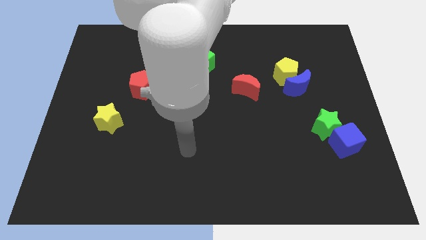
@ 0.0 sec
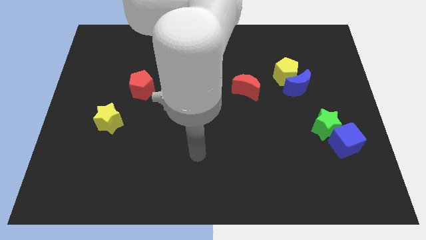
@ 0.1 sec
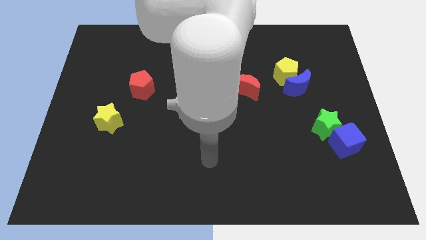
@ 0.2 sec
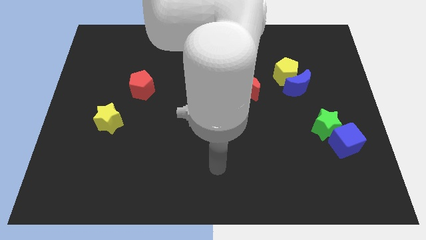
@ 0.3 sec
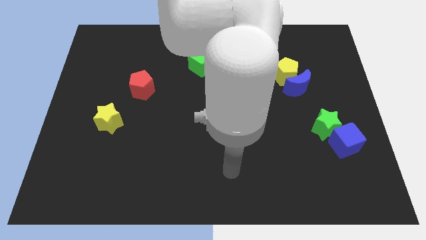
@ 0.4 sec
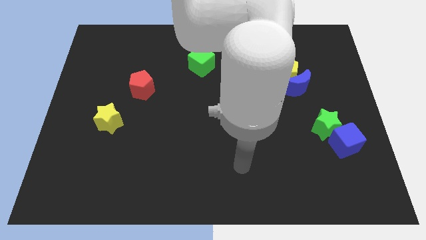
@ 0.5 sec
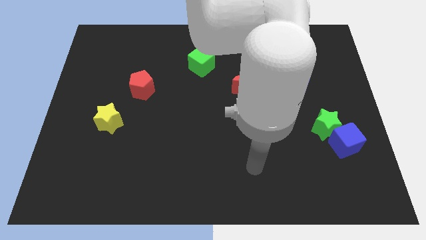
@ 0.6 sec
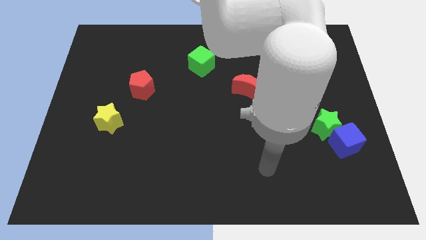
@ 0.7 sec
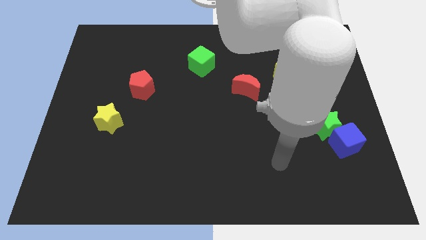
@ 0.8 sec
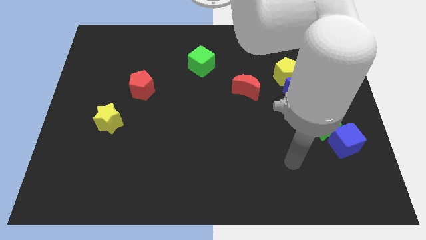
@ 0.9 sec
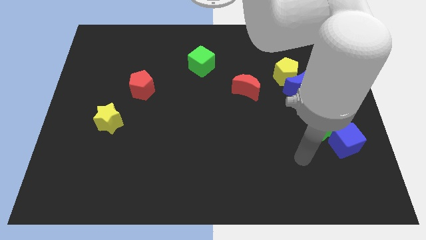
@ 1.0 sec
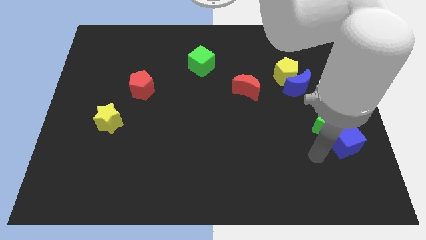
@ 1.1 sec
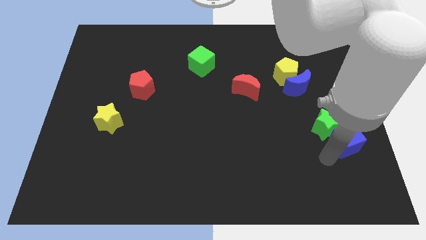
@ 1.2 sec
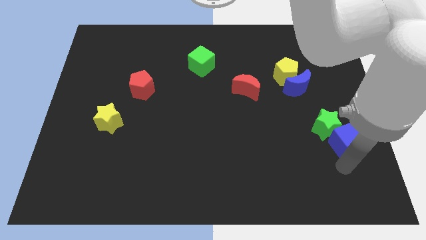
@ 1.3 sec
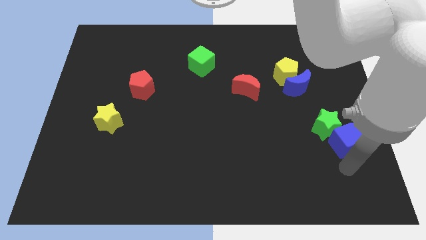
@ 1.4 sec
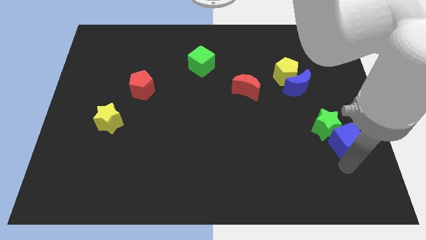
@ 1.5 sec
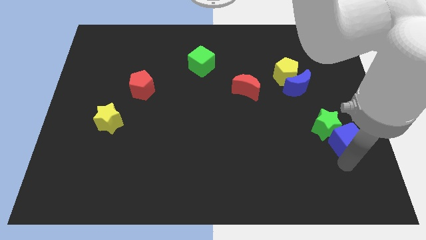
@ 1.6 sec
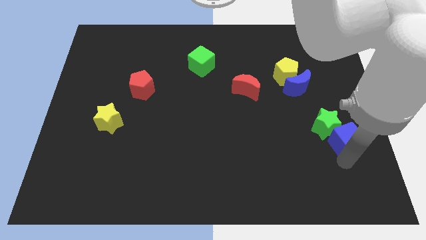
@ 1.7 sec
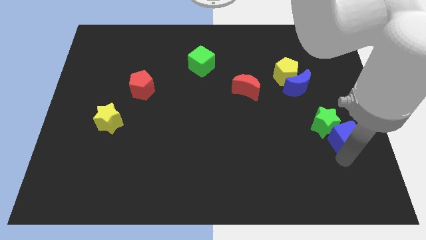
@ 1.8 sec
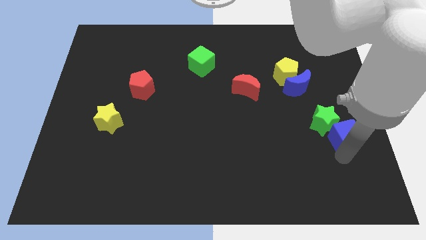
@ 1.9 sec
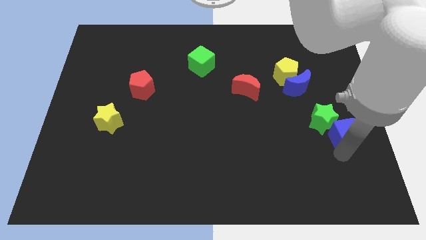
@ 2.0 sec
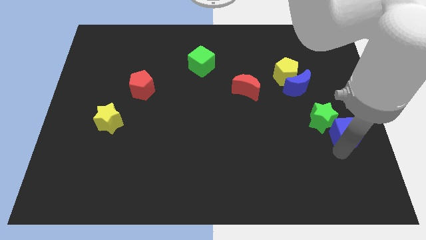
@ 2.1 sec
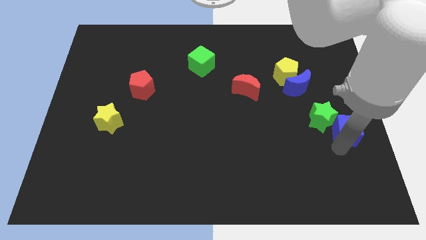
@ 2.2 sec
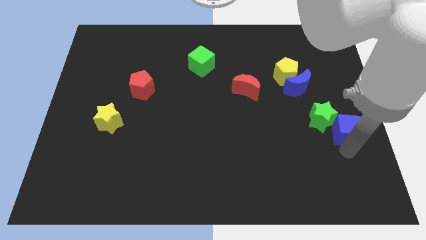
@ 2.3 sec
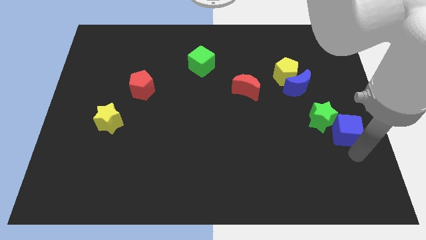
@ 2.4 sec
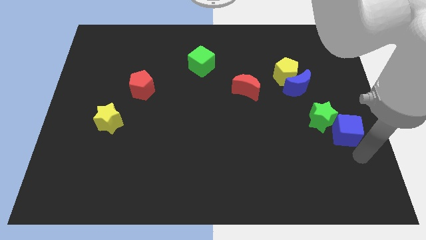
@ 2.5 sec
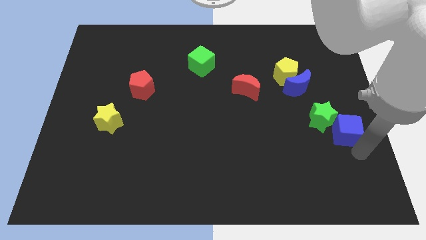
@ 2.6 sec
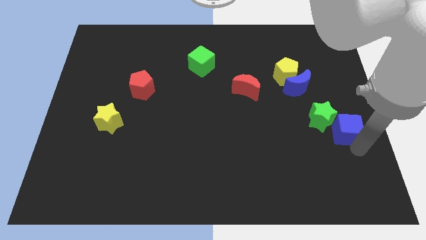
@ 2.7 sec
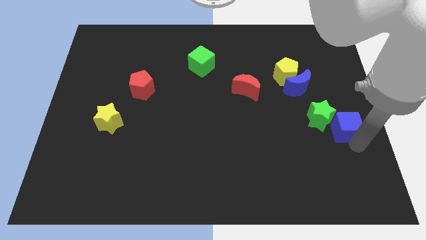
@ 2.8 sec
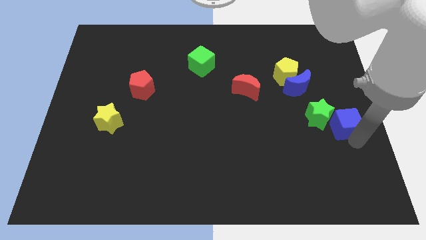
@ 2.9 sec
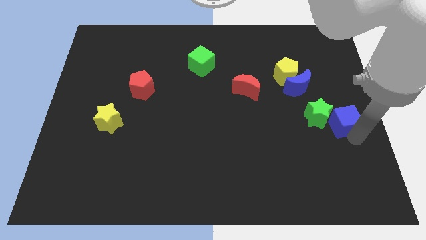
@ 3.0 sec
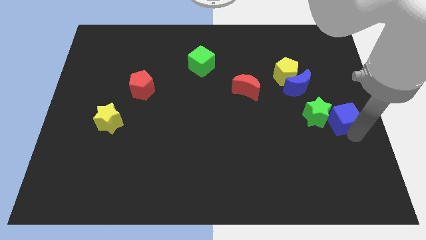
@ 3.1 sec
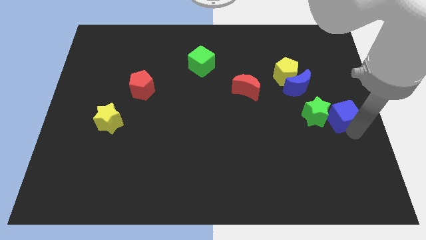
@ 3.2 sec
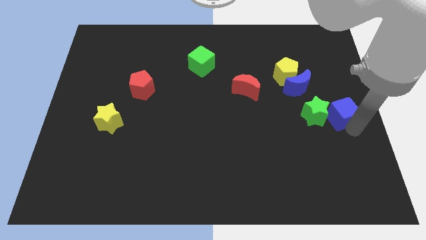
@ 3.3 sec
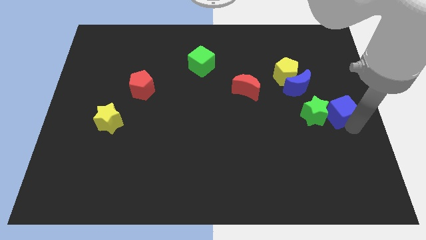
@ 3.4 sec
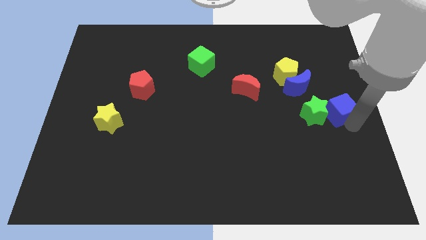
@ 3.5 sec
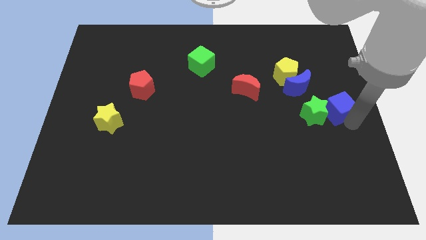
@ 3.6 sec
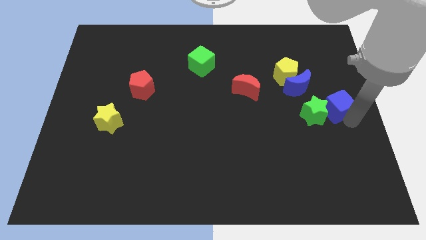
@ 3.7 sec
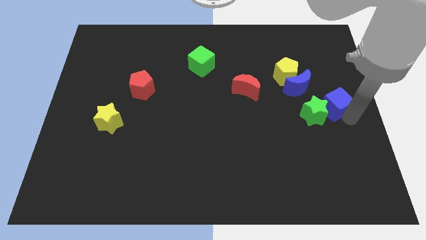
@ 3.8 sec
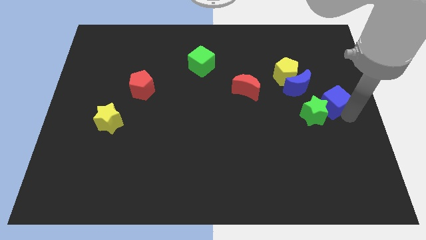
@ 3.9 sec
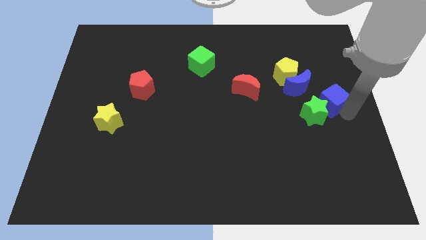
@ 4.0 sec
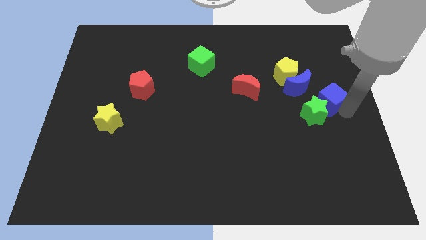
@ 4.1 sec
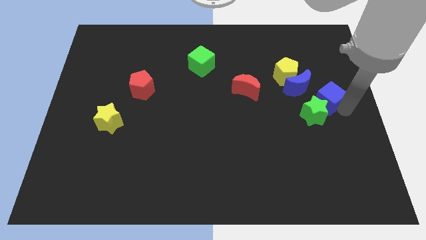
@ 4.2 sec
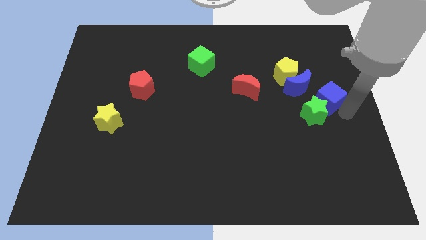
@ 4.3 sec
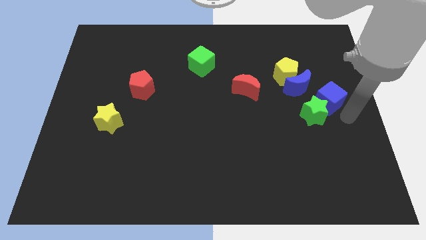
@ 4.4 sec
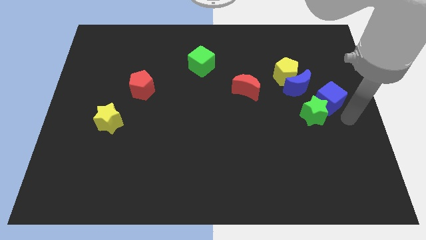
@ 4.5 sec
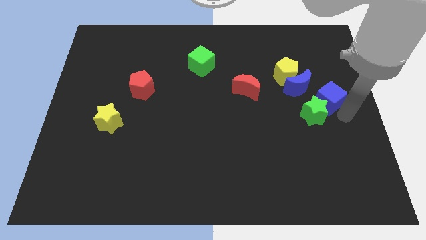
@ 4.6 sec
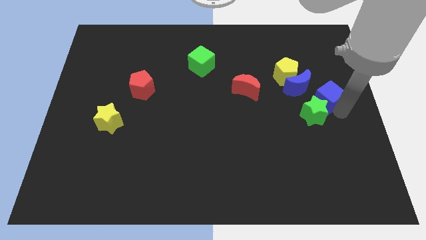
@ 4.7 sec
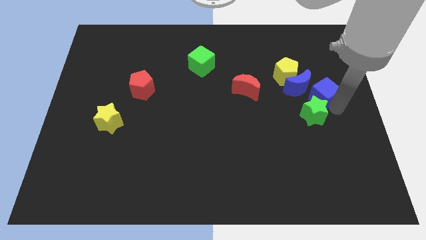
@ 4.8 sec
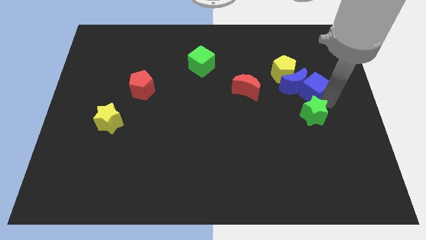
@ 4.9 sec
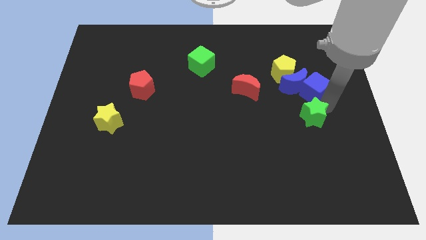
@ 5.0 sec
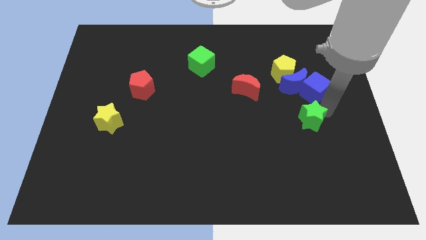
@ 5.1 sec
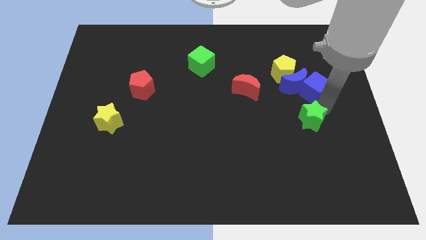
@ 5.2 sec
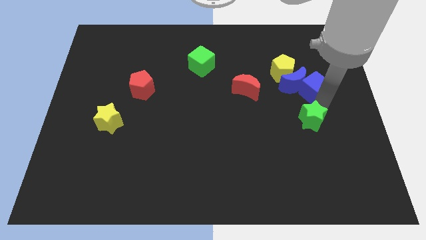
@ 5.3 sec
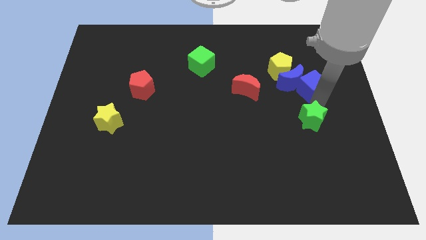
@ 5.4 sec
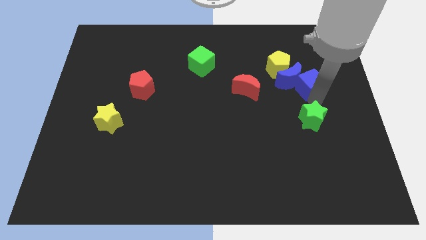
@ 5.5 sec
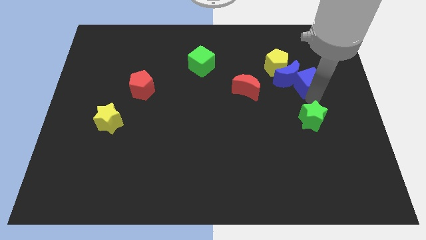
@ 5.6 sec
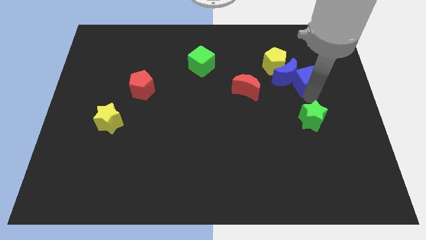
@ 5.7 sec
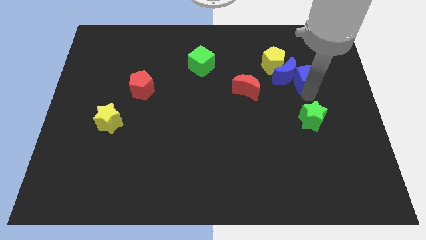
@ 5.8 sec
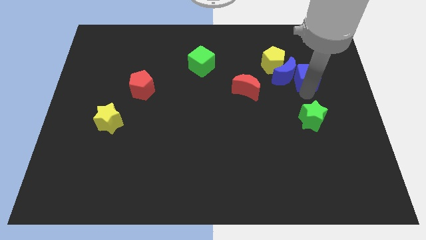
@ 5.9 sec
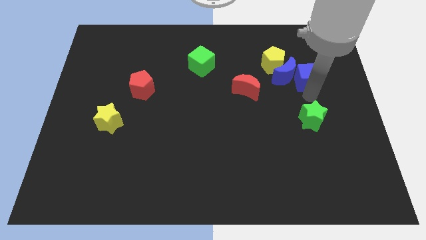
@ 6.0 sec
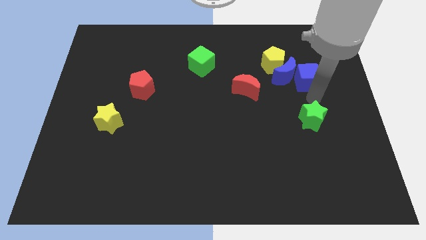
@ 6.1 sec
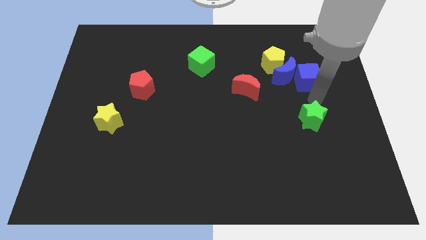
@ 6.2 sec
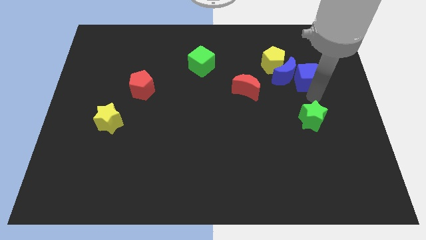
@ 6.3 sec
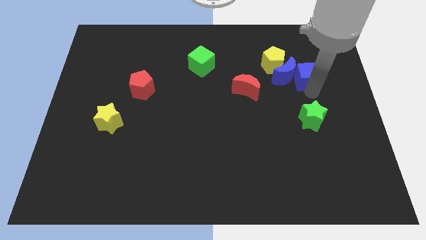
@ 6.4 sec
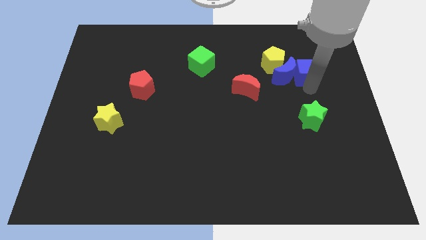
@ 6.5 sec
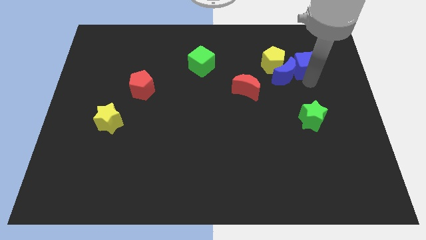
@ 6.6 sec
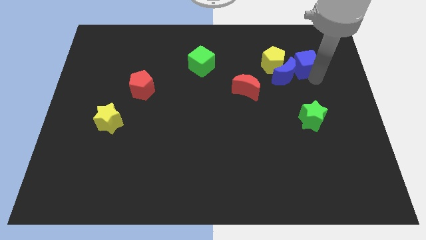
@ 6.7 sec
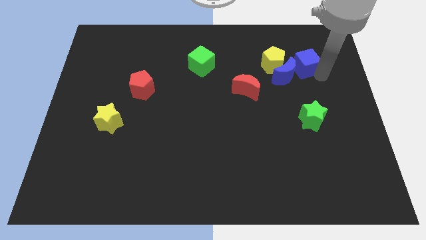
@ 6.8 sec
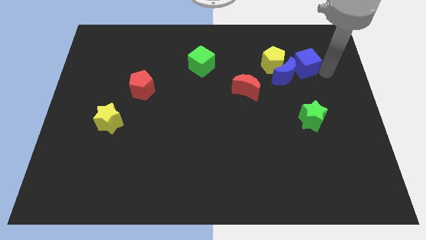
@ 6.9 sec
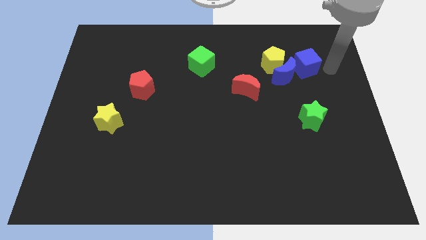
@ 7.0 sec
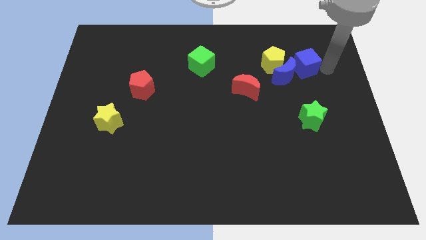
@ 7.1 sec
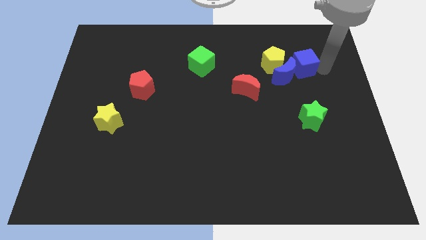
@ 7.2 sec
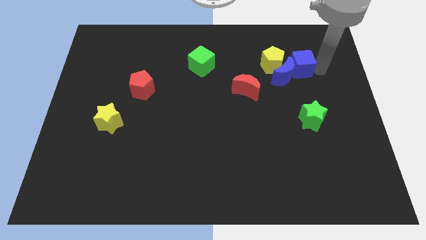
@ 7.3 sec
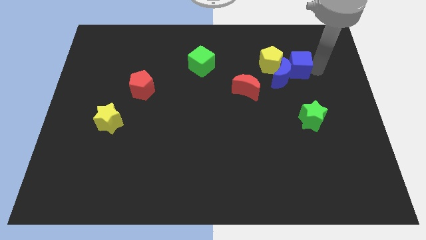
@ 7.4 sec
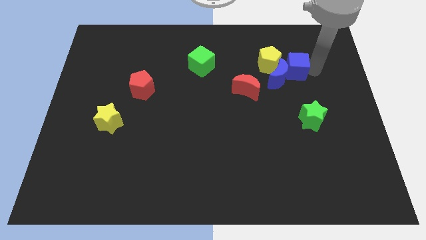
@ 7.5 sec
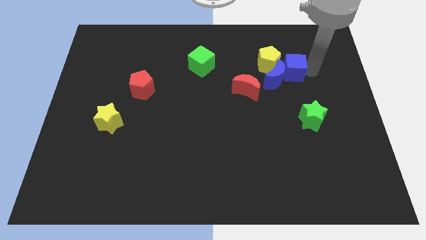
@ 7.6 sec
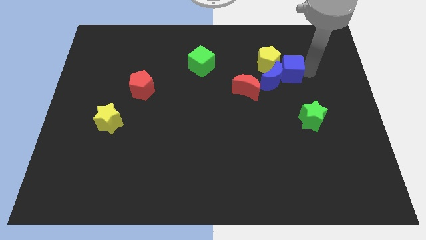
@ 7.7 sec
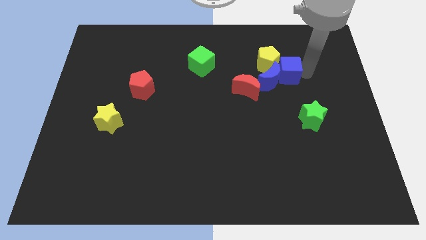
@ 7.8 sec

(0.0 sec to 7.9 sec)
push the blue cube to the yellow pentagon
